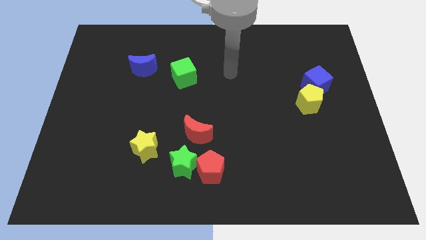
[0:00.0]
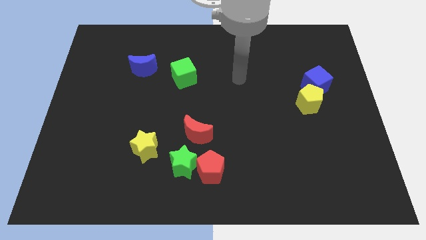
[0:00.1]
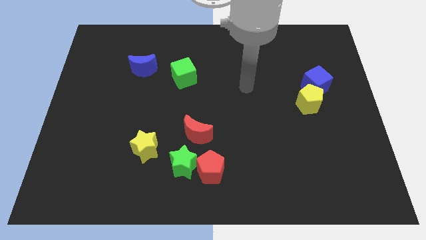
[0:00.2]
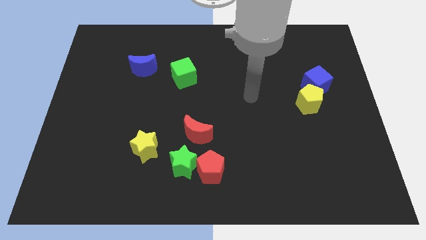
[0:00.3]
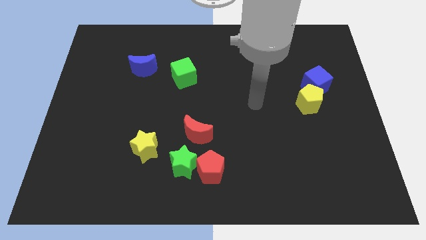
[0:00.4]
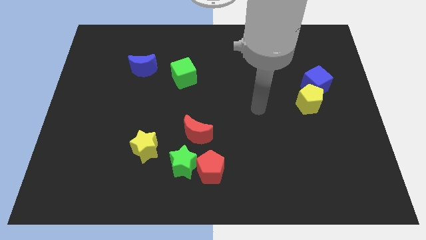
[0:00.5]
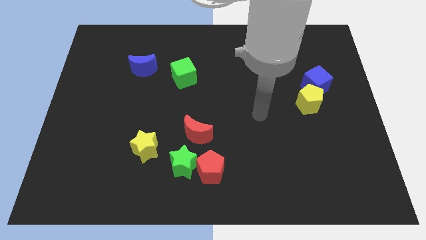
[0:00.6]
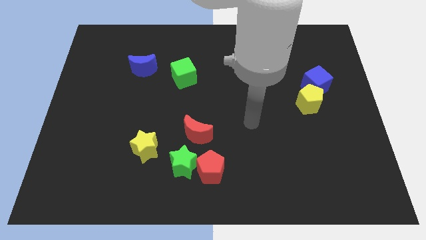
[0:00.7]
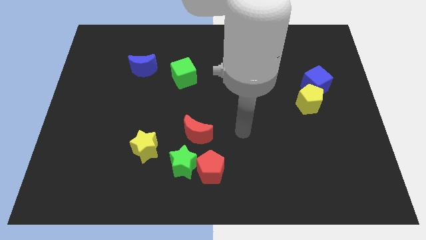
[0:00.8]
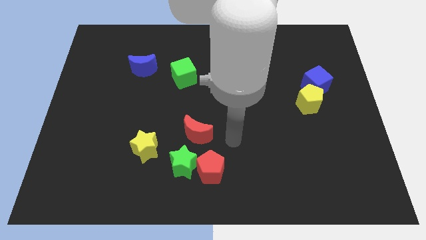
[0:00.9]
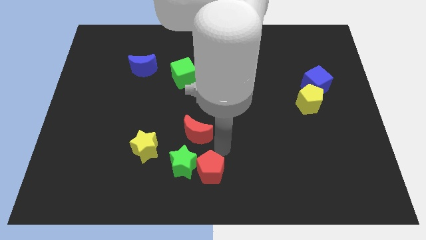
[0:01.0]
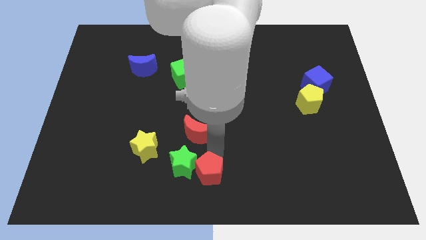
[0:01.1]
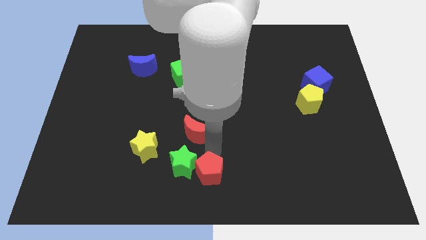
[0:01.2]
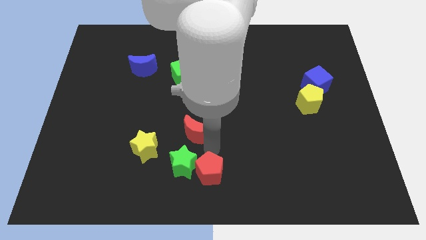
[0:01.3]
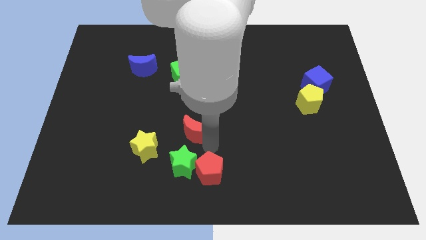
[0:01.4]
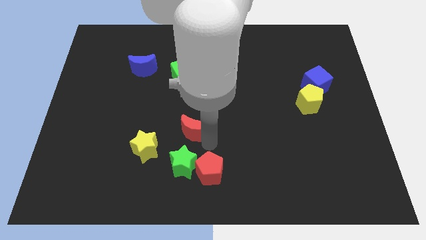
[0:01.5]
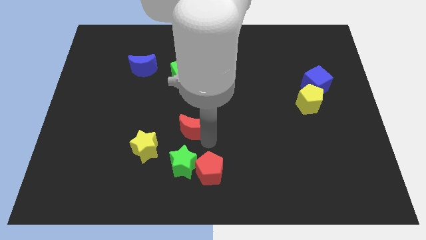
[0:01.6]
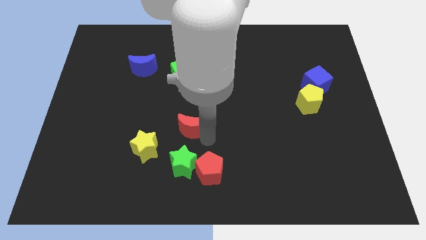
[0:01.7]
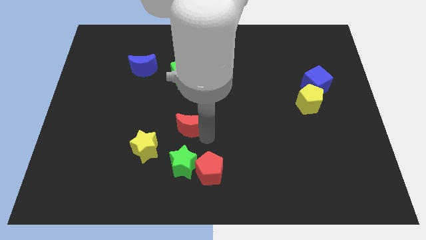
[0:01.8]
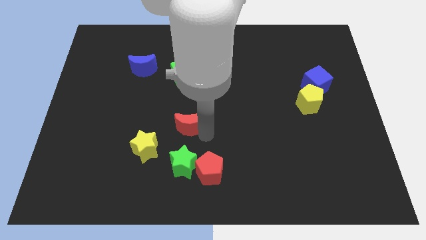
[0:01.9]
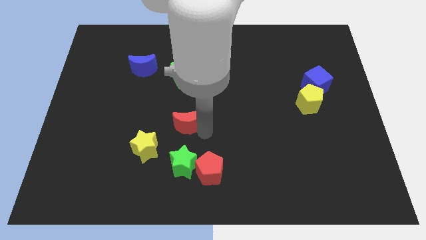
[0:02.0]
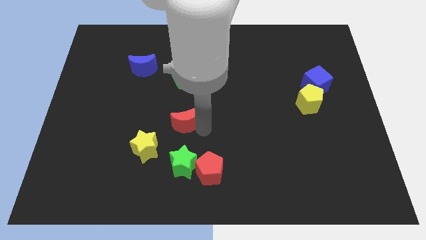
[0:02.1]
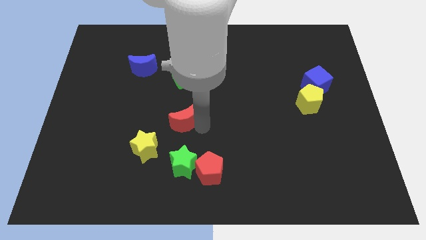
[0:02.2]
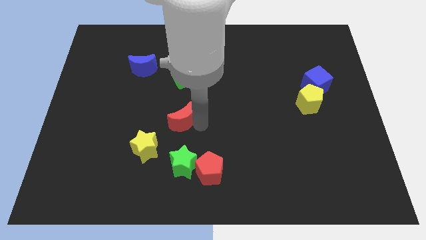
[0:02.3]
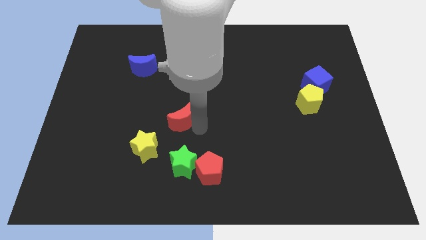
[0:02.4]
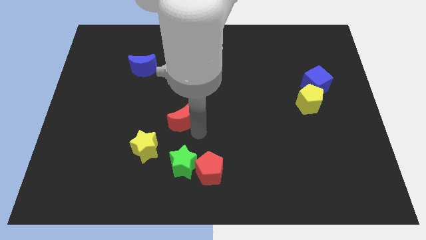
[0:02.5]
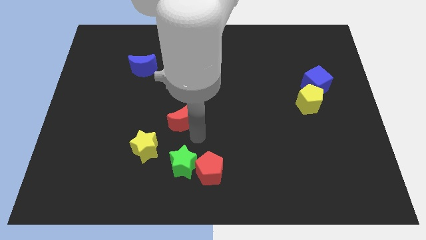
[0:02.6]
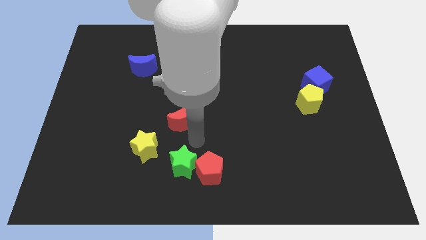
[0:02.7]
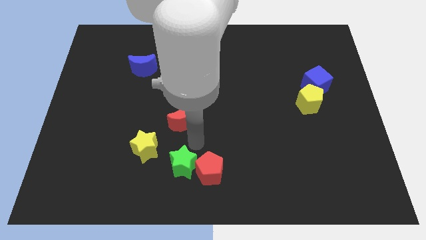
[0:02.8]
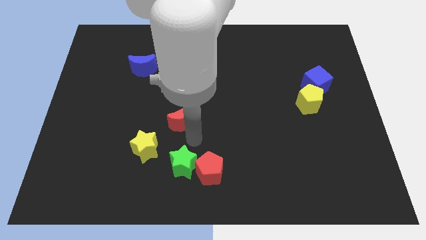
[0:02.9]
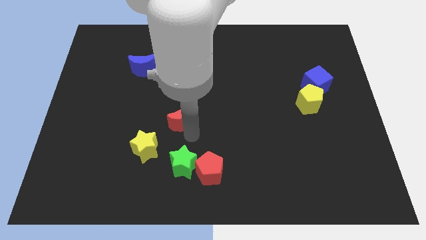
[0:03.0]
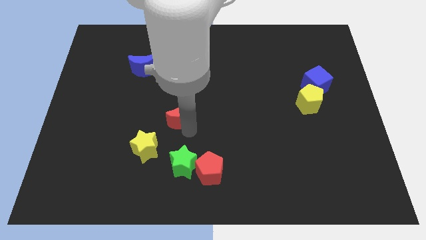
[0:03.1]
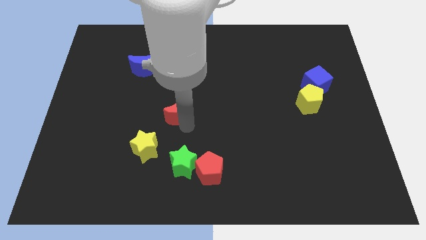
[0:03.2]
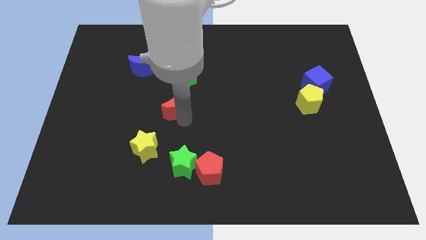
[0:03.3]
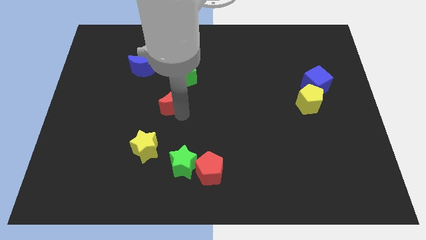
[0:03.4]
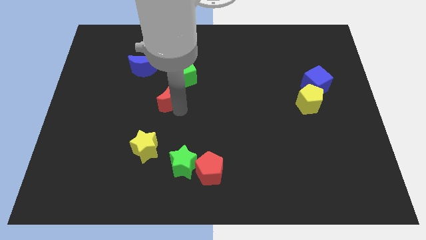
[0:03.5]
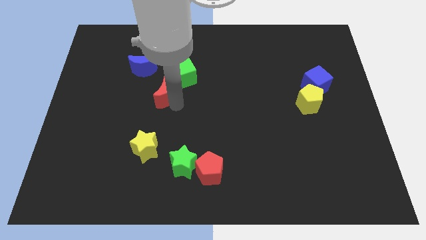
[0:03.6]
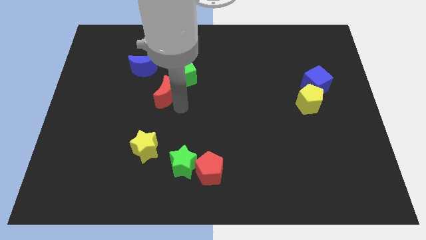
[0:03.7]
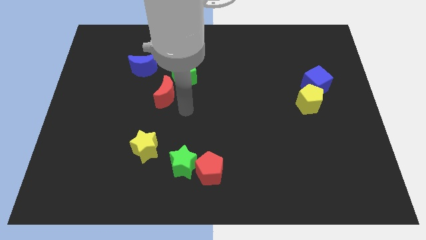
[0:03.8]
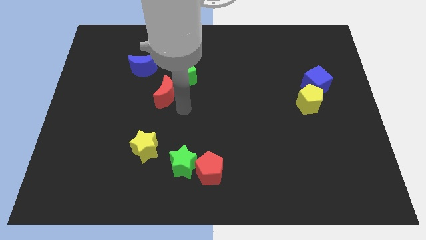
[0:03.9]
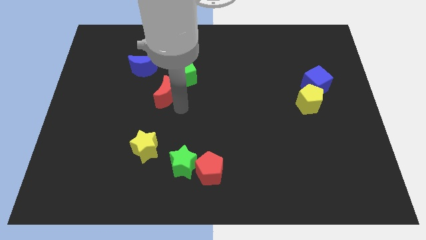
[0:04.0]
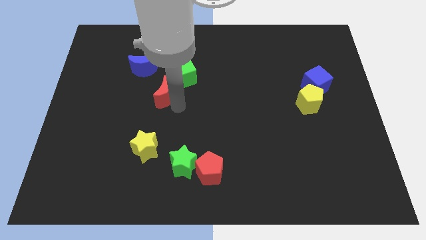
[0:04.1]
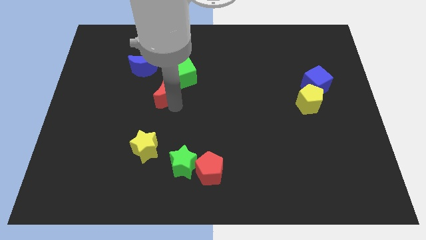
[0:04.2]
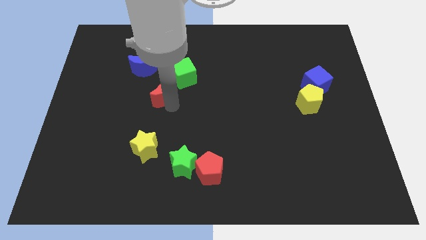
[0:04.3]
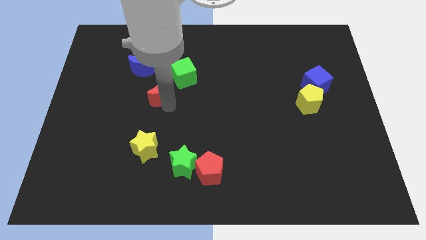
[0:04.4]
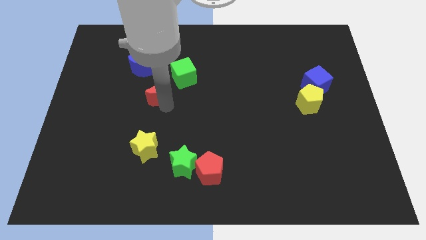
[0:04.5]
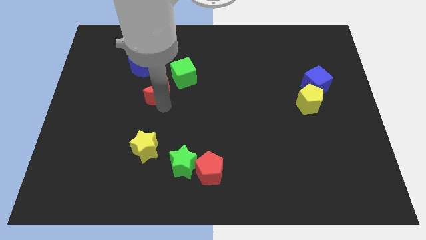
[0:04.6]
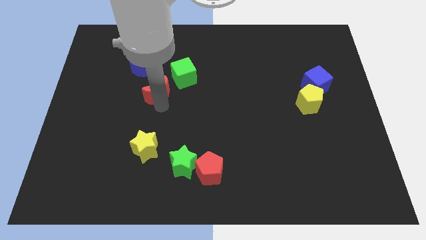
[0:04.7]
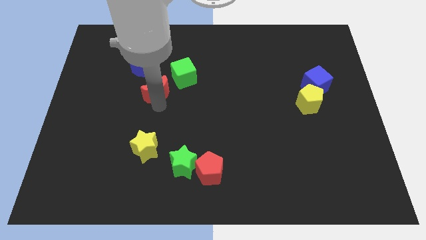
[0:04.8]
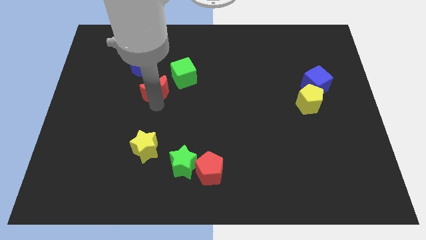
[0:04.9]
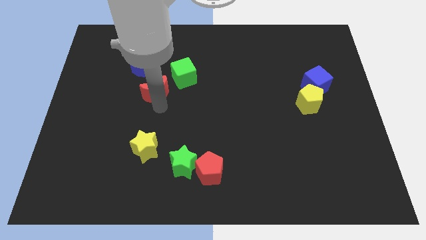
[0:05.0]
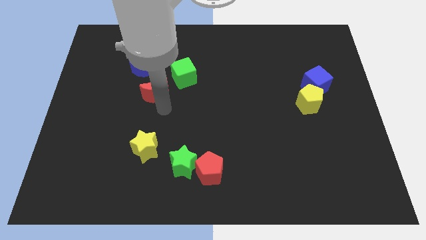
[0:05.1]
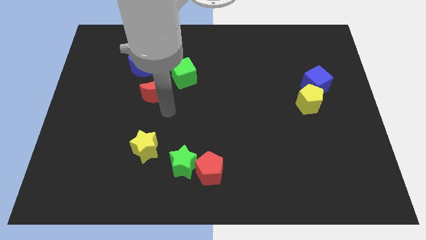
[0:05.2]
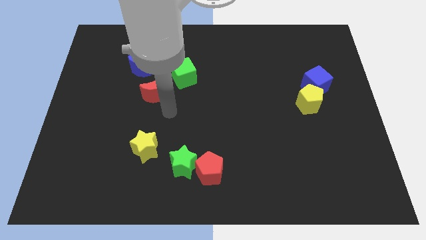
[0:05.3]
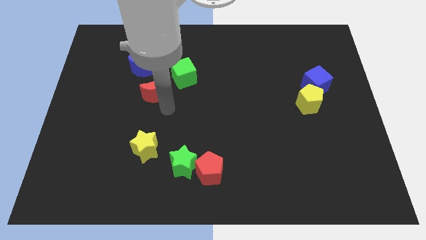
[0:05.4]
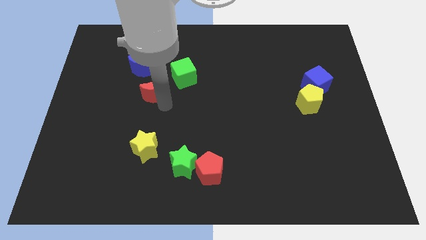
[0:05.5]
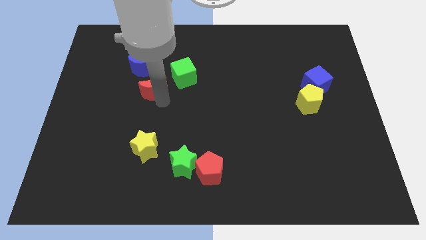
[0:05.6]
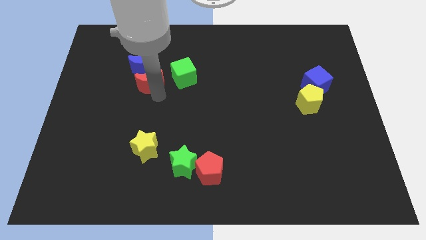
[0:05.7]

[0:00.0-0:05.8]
push the red moon to the blue moon

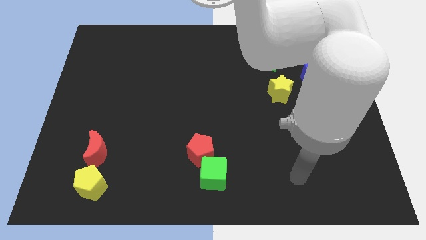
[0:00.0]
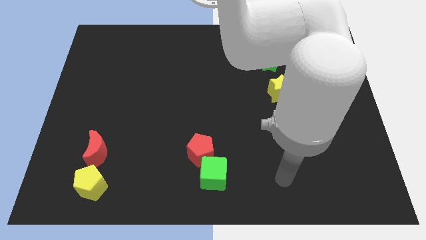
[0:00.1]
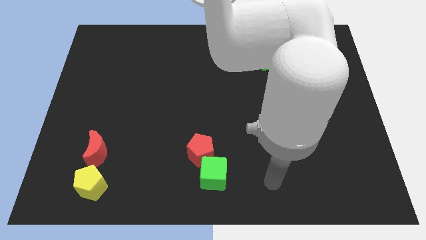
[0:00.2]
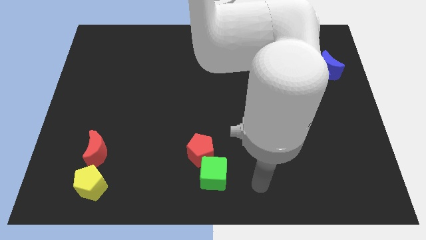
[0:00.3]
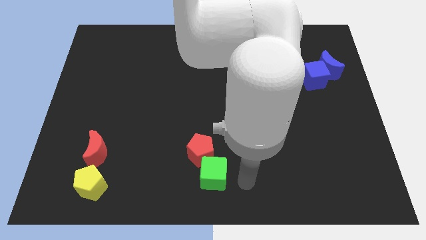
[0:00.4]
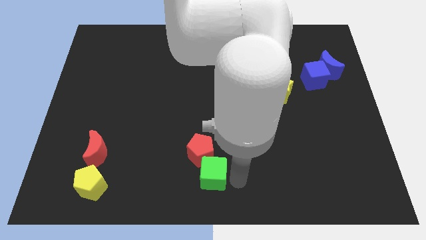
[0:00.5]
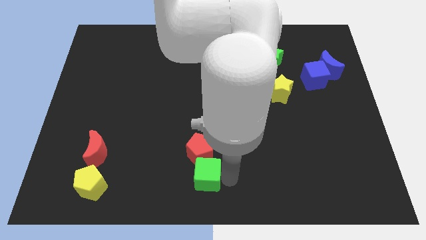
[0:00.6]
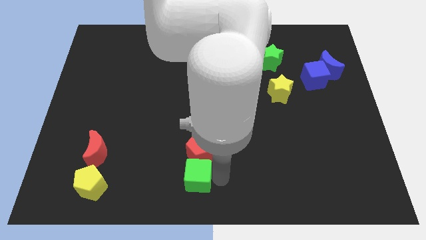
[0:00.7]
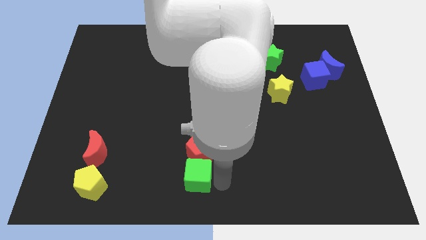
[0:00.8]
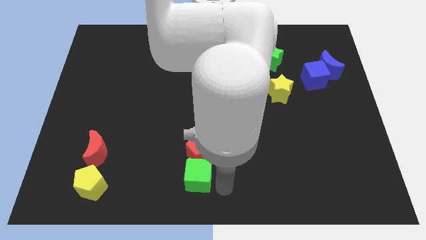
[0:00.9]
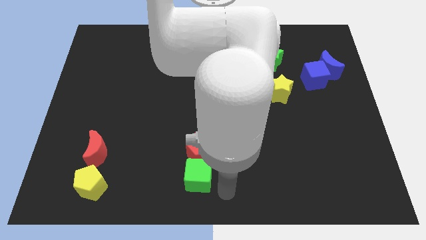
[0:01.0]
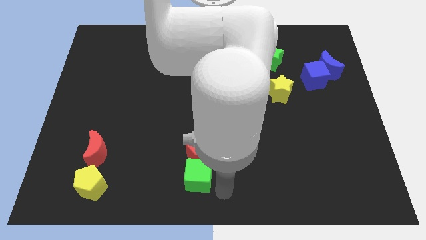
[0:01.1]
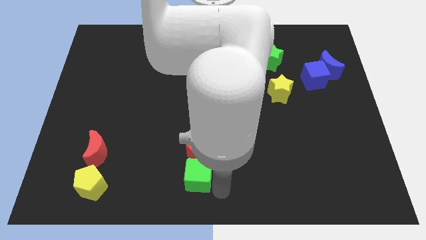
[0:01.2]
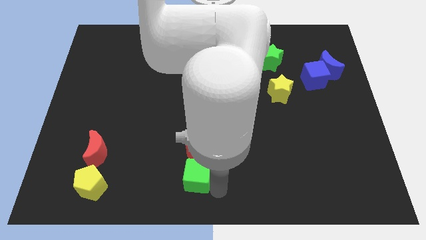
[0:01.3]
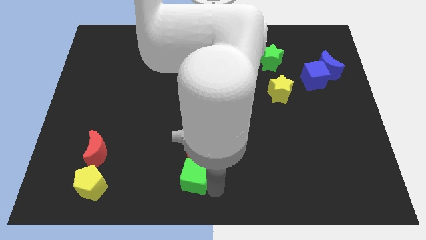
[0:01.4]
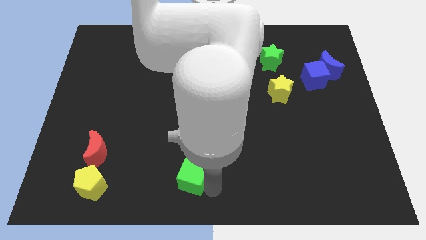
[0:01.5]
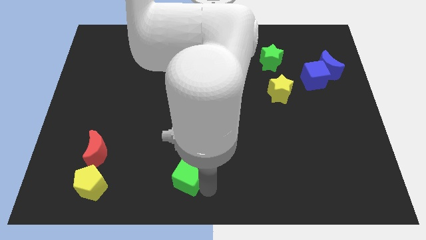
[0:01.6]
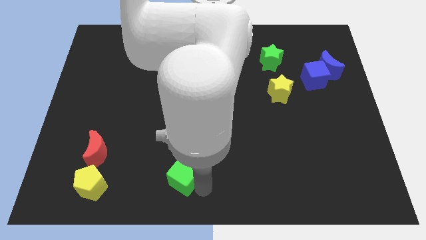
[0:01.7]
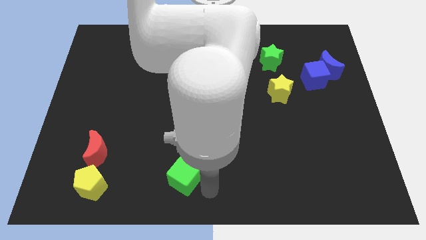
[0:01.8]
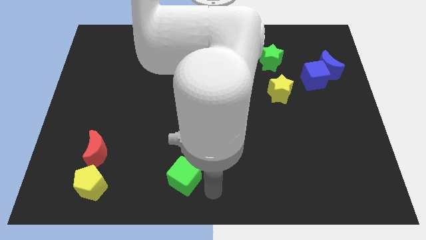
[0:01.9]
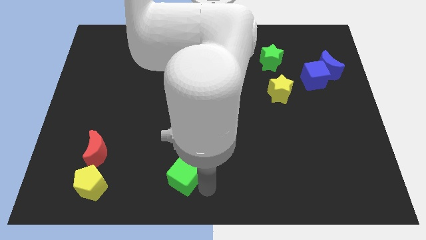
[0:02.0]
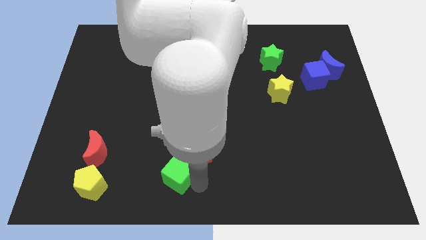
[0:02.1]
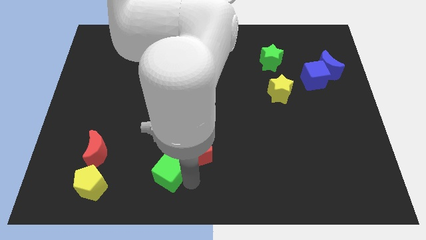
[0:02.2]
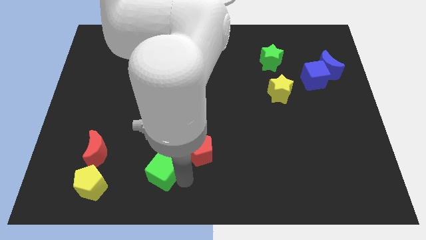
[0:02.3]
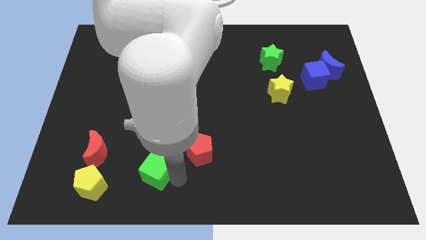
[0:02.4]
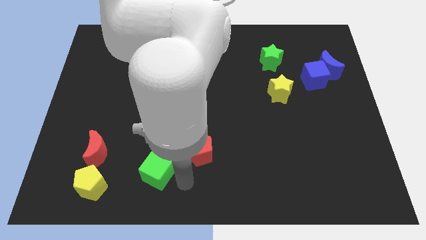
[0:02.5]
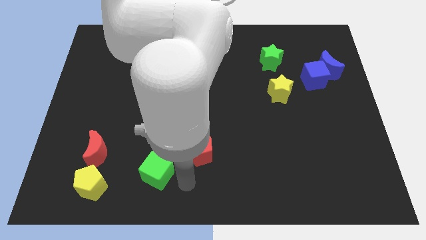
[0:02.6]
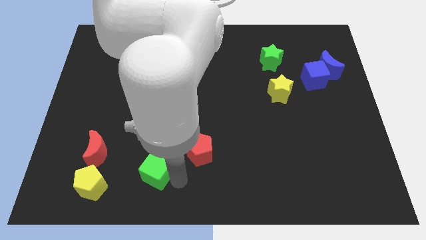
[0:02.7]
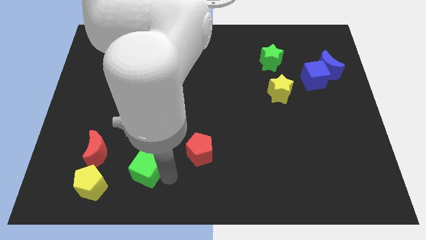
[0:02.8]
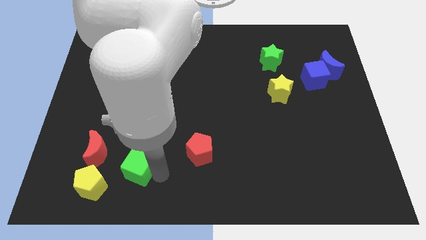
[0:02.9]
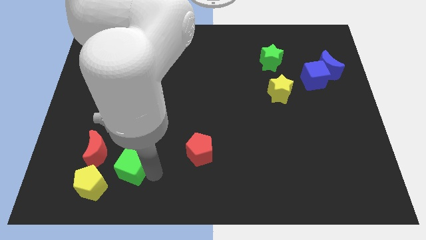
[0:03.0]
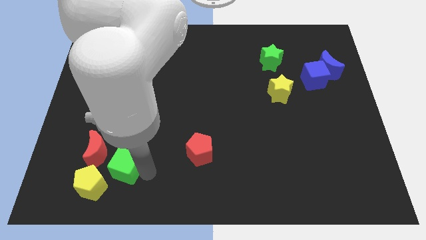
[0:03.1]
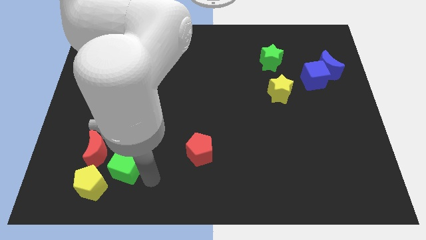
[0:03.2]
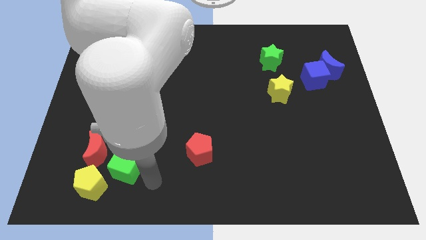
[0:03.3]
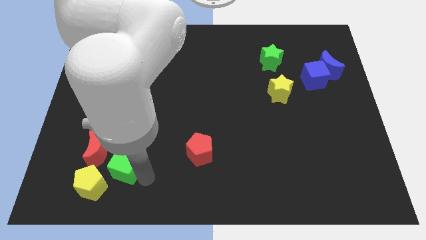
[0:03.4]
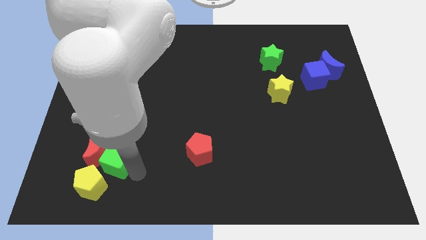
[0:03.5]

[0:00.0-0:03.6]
slide the green cube next to the red moon
